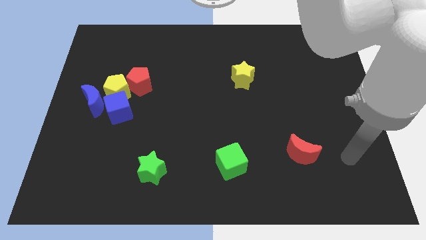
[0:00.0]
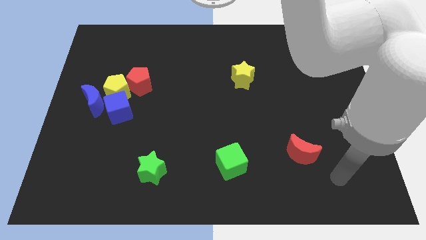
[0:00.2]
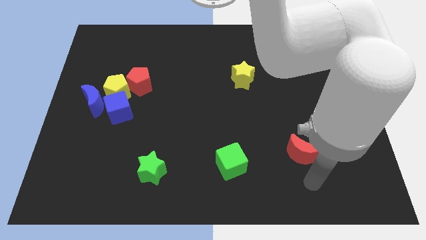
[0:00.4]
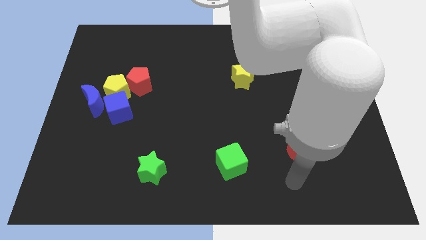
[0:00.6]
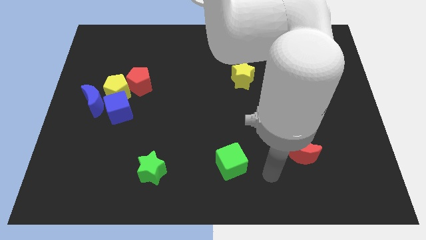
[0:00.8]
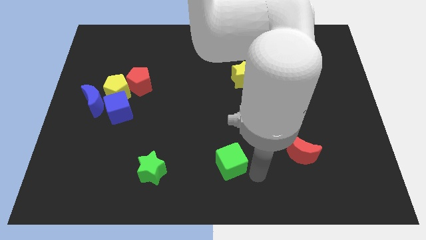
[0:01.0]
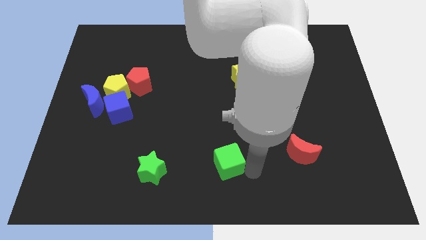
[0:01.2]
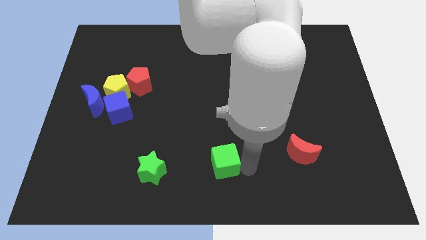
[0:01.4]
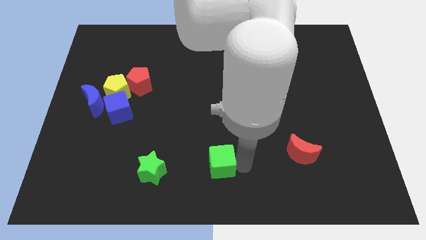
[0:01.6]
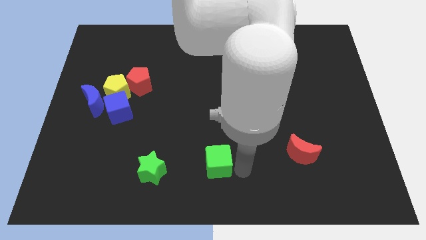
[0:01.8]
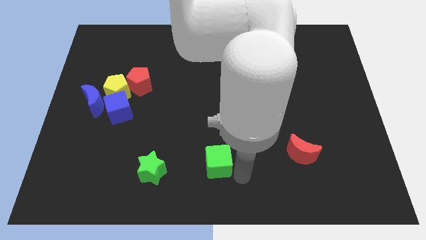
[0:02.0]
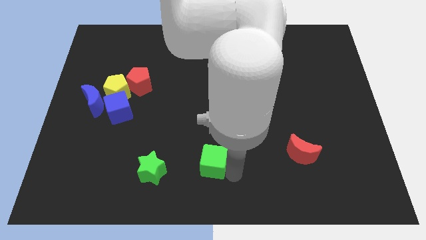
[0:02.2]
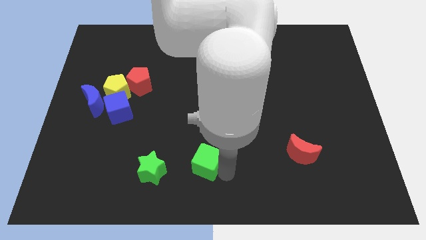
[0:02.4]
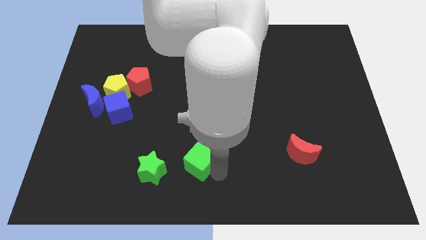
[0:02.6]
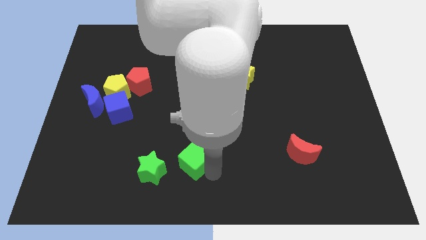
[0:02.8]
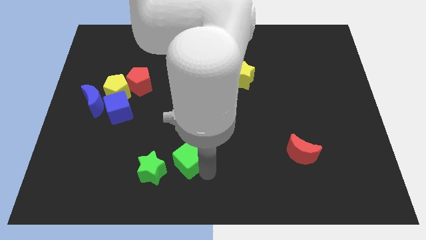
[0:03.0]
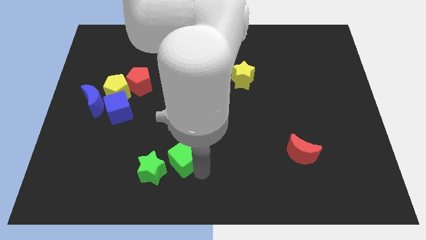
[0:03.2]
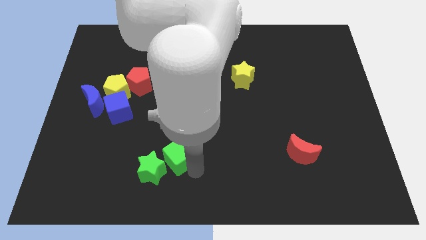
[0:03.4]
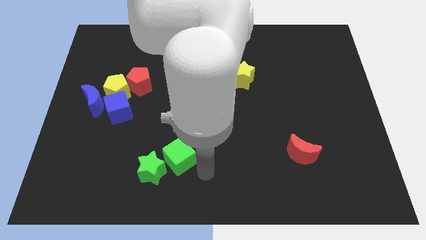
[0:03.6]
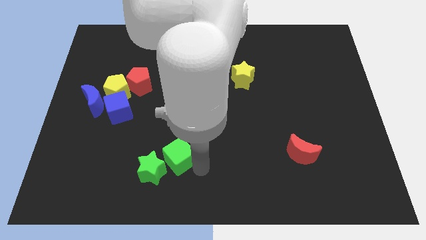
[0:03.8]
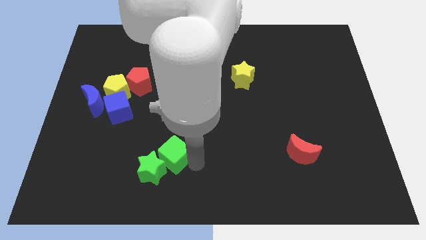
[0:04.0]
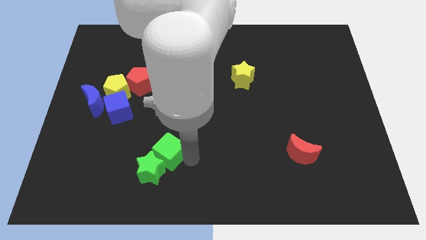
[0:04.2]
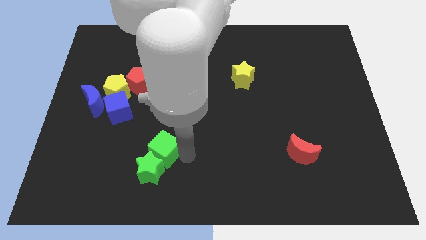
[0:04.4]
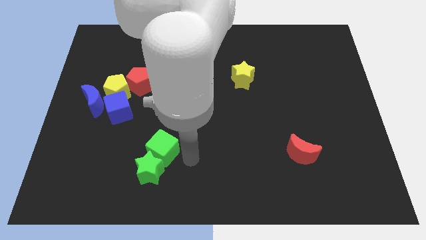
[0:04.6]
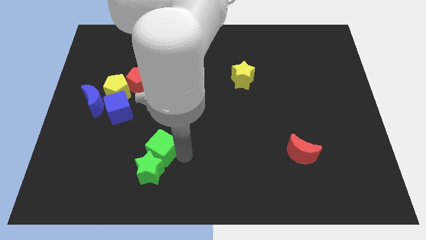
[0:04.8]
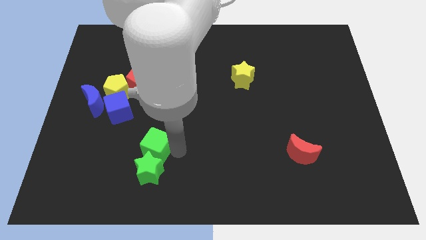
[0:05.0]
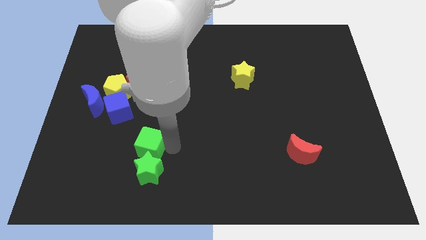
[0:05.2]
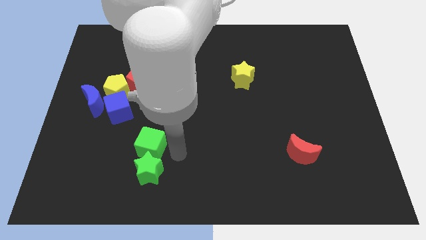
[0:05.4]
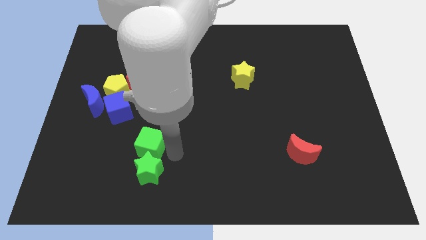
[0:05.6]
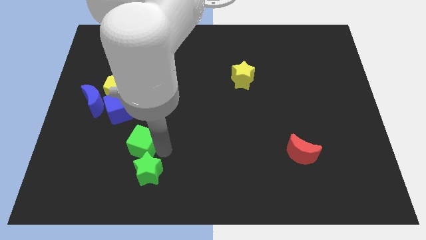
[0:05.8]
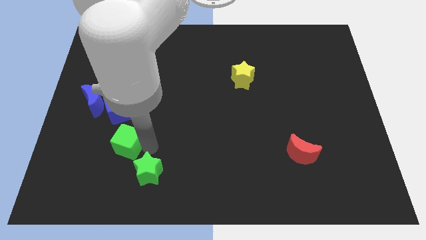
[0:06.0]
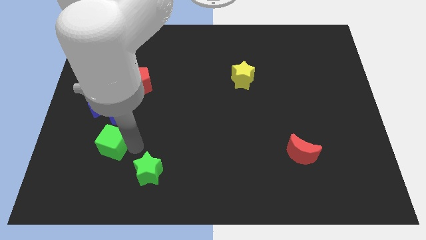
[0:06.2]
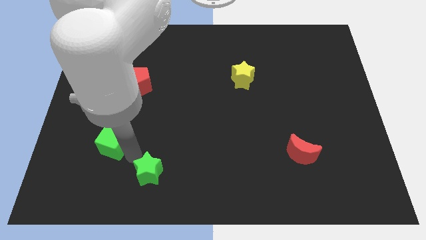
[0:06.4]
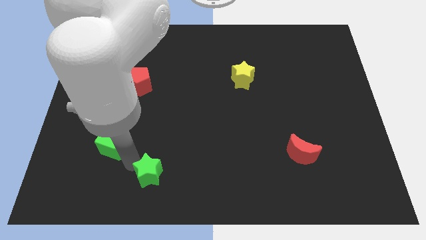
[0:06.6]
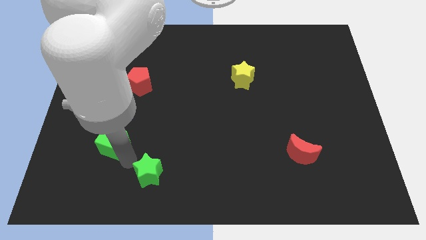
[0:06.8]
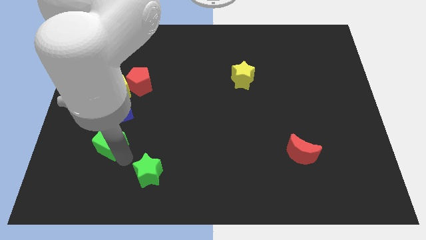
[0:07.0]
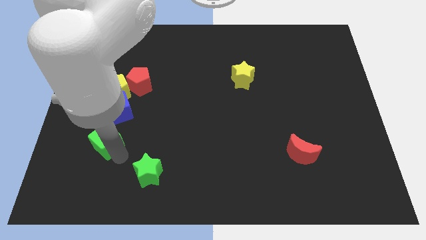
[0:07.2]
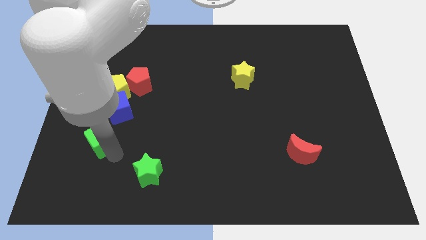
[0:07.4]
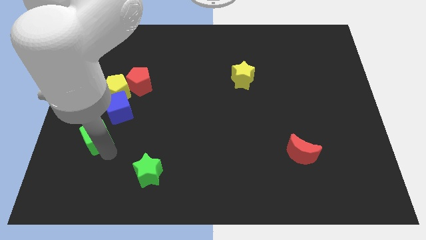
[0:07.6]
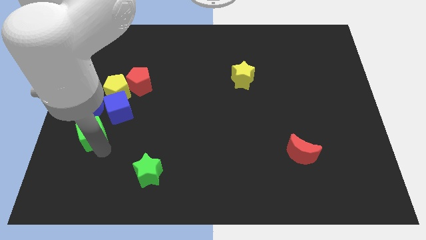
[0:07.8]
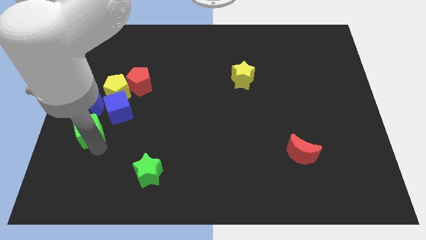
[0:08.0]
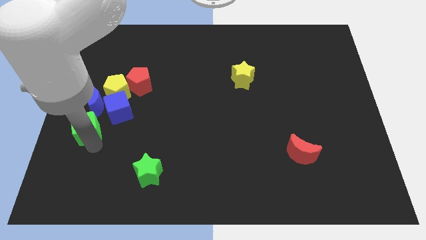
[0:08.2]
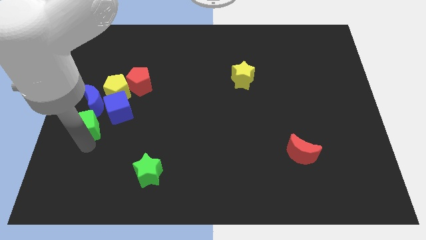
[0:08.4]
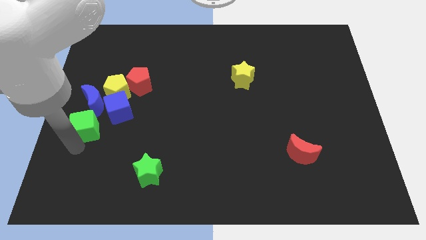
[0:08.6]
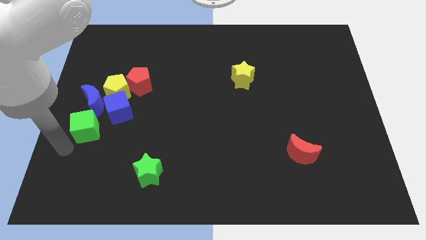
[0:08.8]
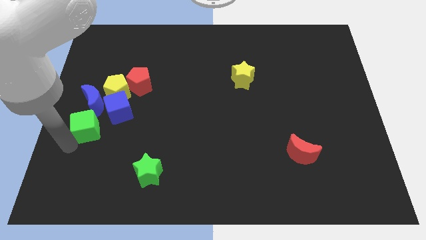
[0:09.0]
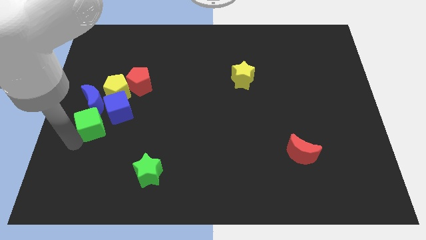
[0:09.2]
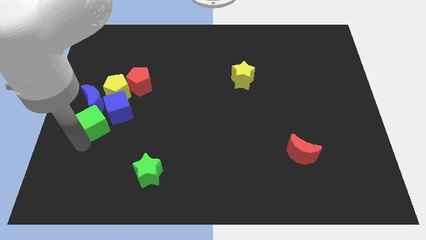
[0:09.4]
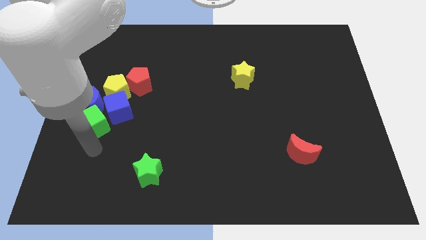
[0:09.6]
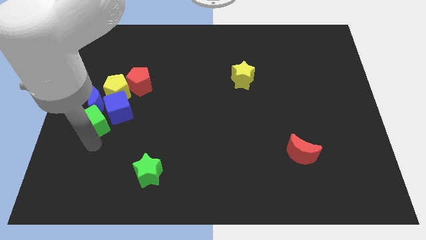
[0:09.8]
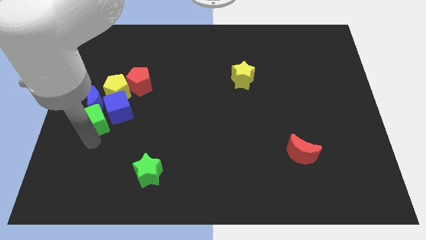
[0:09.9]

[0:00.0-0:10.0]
push the green cube towards the blue moon

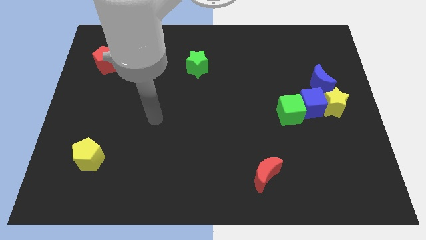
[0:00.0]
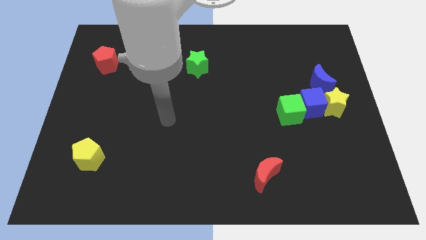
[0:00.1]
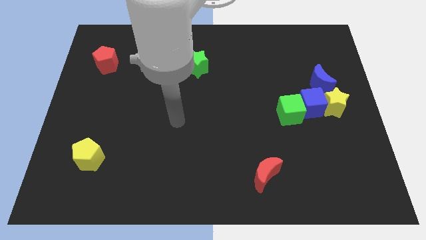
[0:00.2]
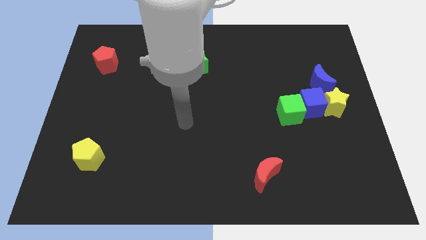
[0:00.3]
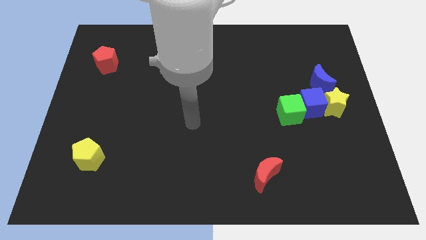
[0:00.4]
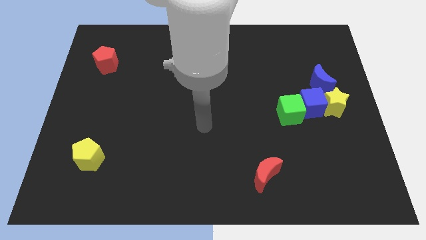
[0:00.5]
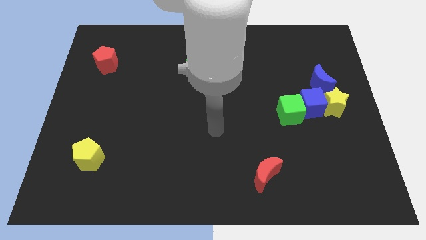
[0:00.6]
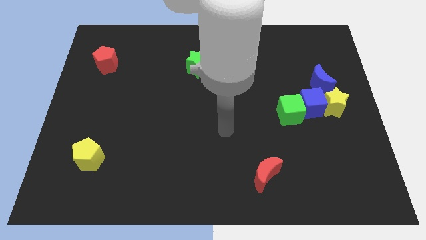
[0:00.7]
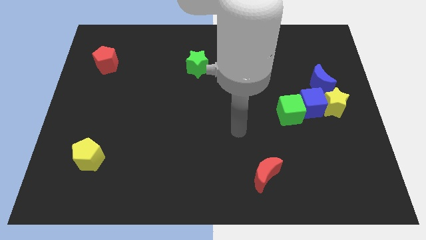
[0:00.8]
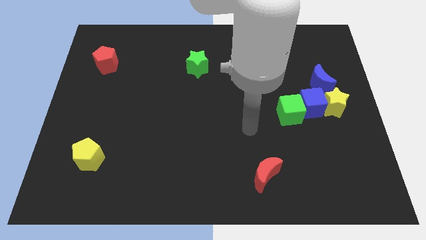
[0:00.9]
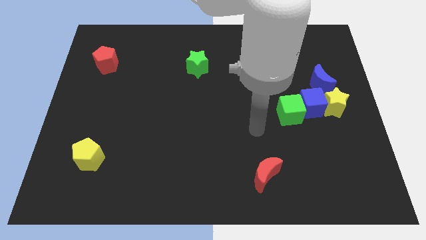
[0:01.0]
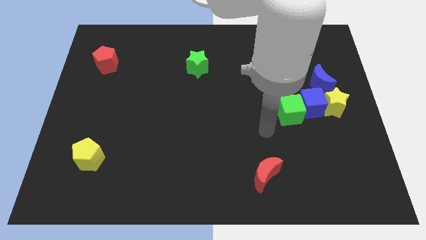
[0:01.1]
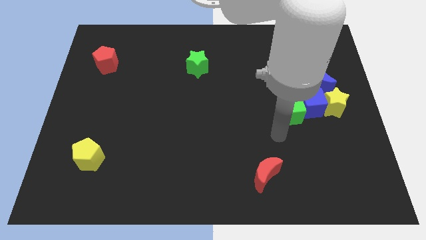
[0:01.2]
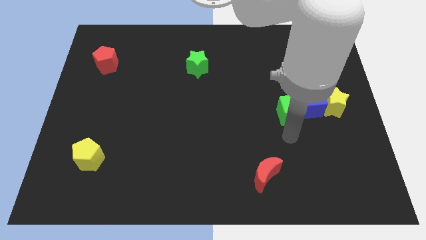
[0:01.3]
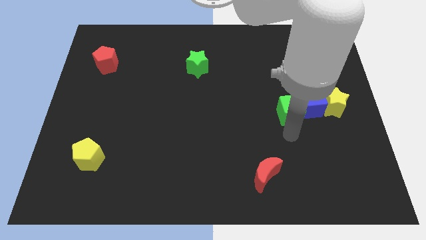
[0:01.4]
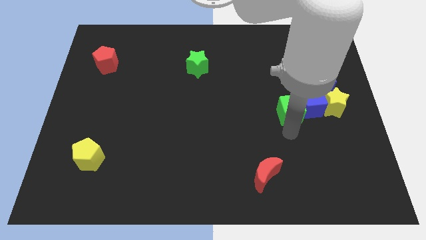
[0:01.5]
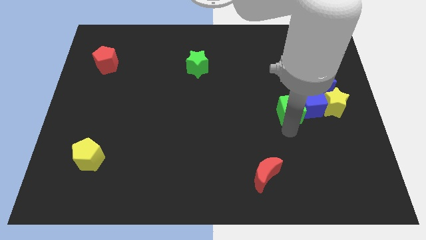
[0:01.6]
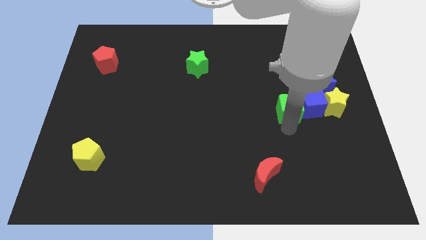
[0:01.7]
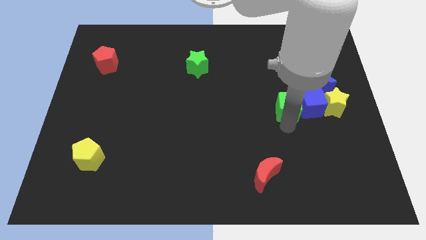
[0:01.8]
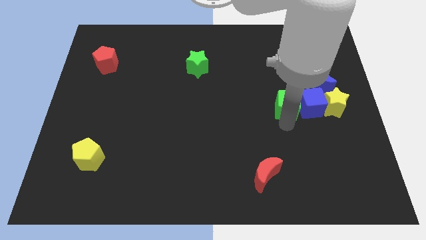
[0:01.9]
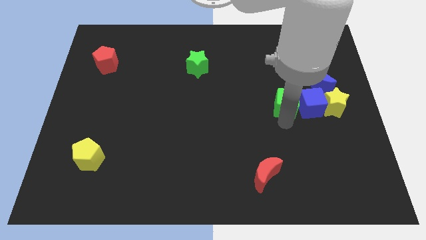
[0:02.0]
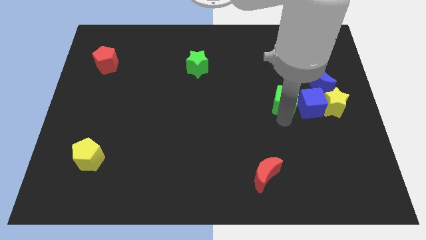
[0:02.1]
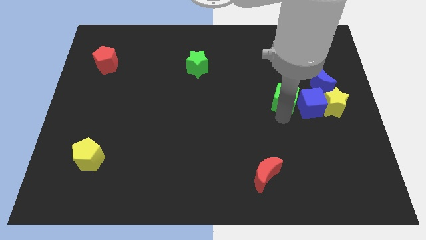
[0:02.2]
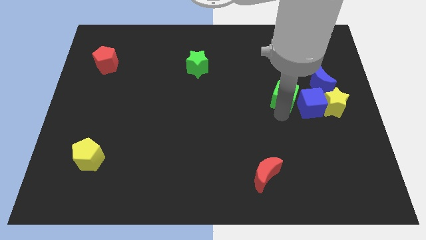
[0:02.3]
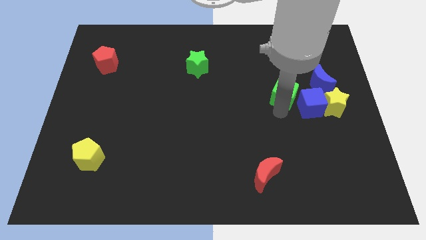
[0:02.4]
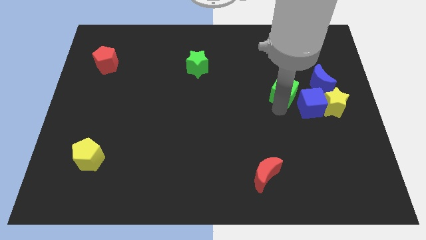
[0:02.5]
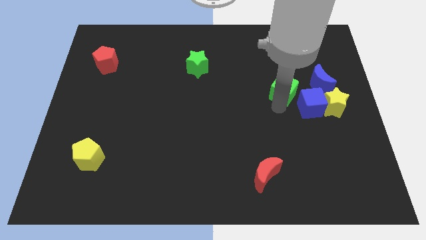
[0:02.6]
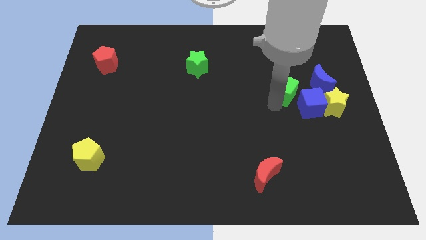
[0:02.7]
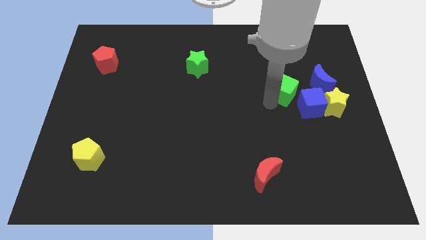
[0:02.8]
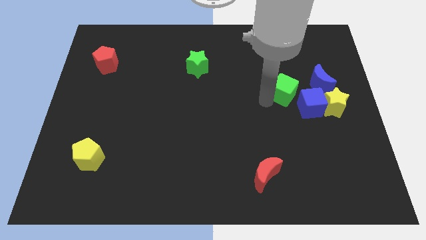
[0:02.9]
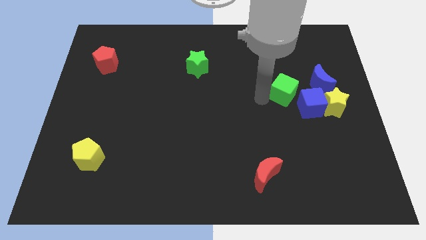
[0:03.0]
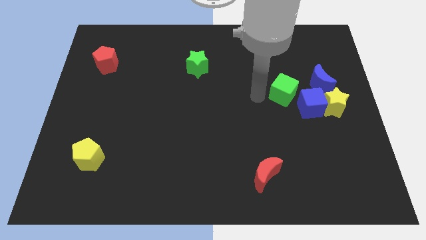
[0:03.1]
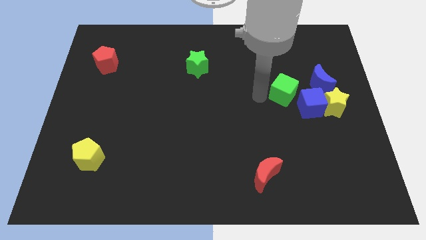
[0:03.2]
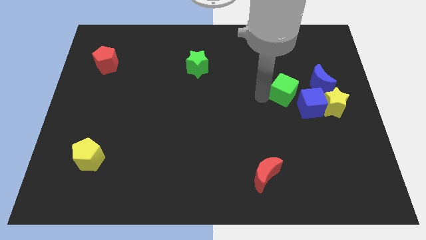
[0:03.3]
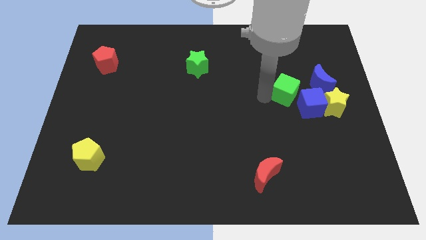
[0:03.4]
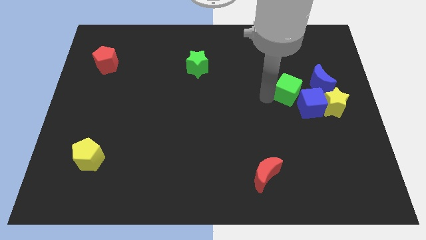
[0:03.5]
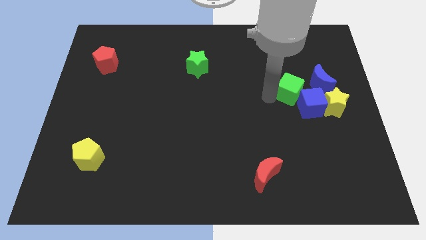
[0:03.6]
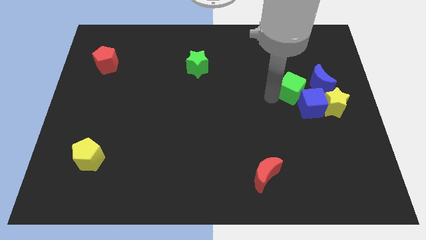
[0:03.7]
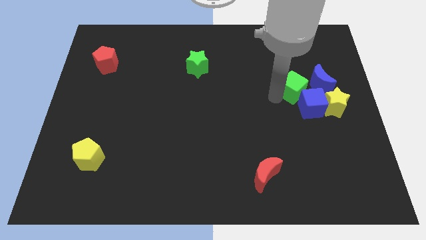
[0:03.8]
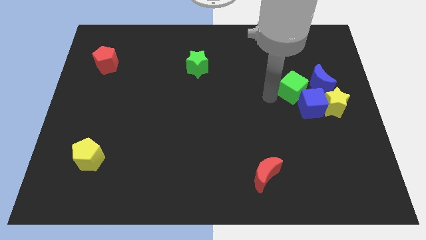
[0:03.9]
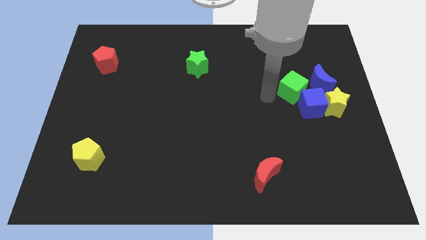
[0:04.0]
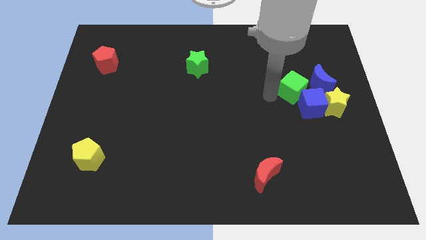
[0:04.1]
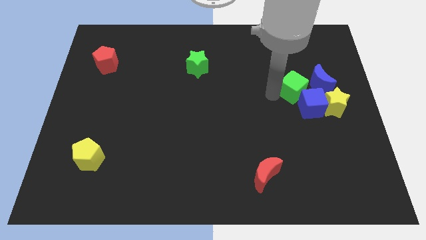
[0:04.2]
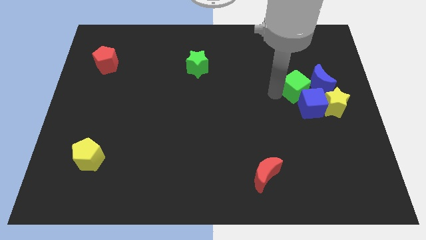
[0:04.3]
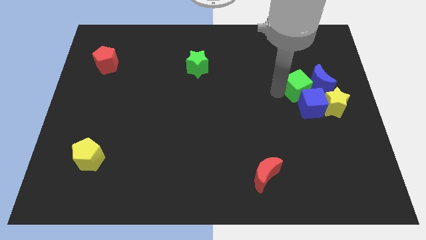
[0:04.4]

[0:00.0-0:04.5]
move the green cube next to the blue moon
